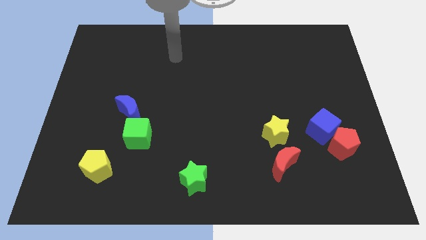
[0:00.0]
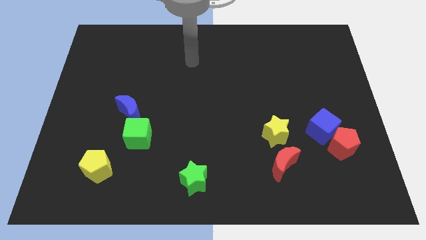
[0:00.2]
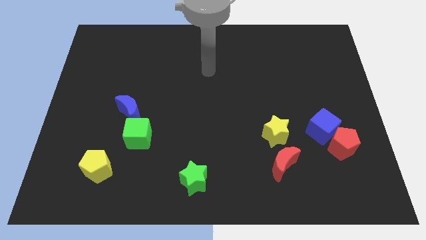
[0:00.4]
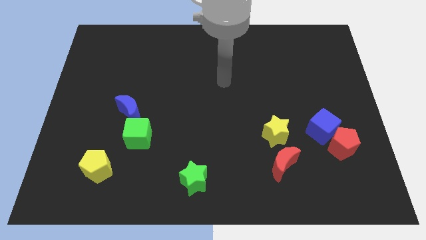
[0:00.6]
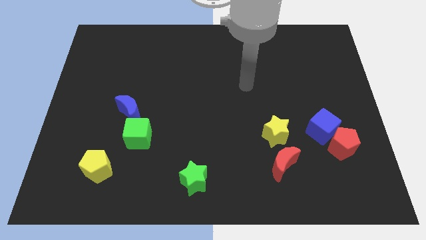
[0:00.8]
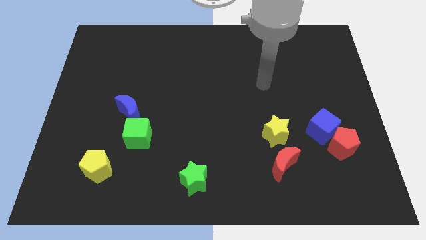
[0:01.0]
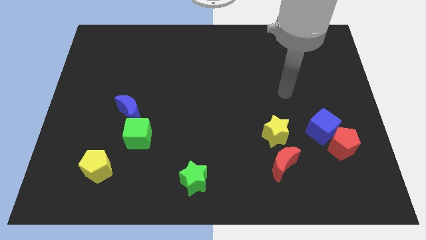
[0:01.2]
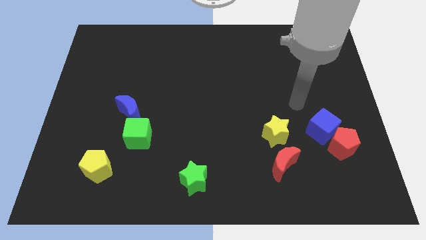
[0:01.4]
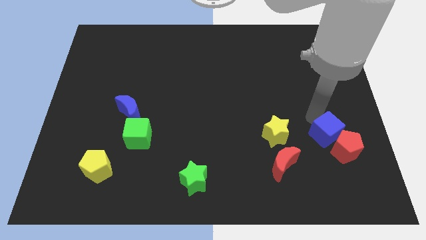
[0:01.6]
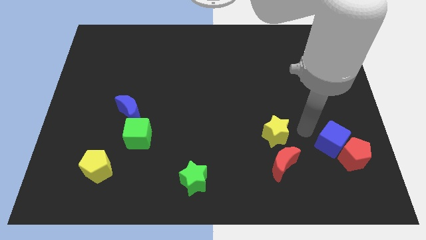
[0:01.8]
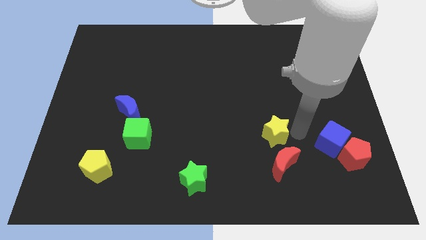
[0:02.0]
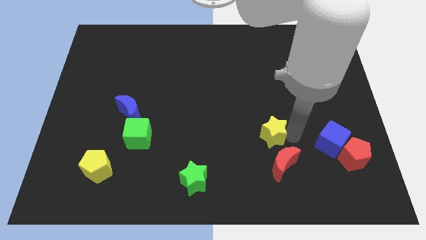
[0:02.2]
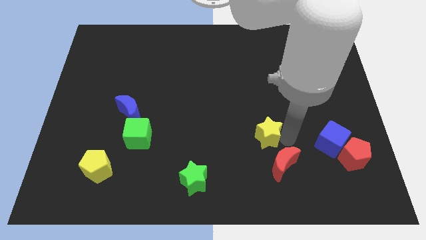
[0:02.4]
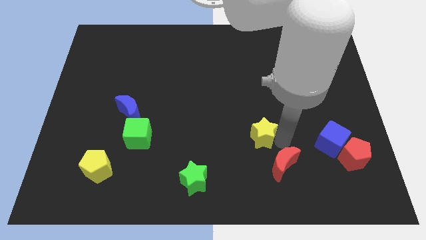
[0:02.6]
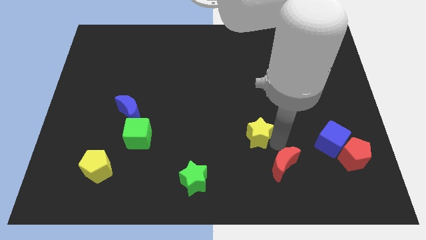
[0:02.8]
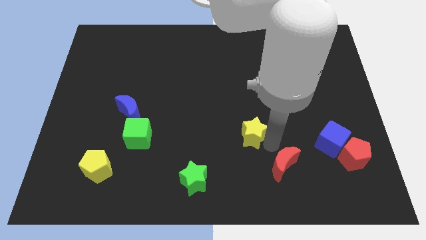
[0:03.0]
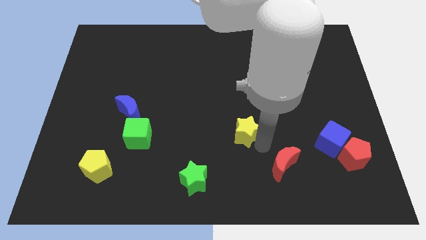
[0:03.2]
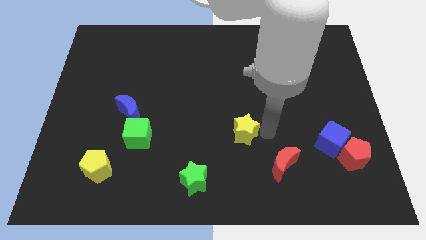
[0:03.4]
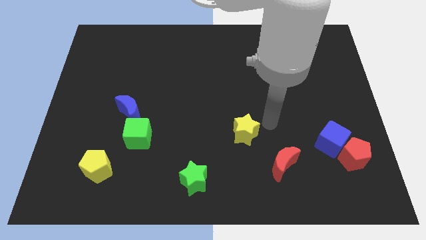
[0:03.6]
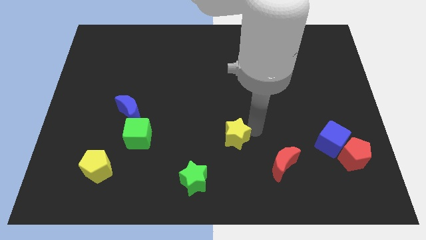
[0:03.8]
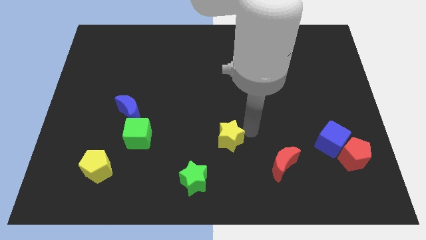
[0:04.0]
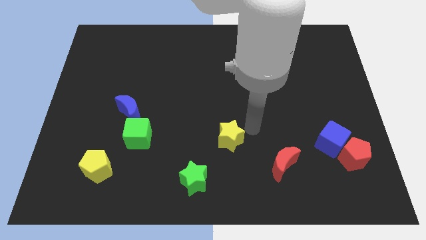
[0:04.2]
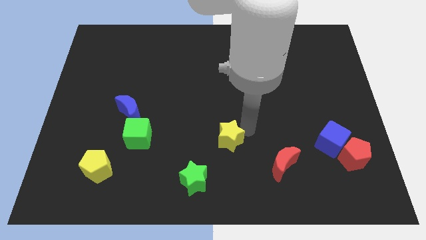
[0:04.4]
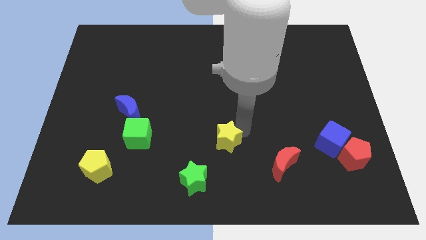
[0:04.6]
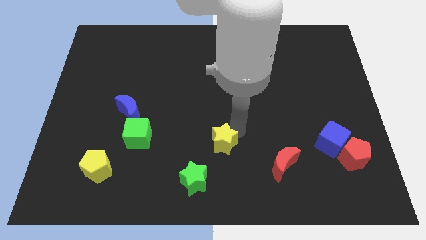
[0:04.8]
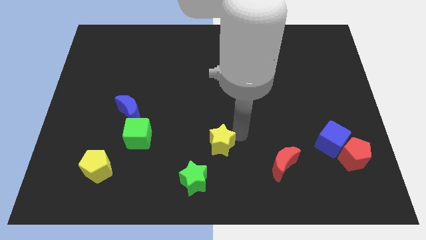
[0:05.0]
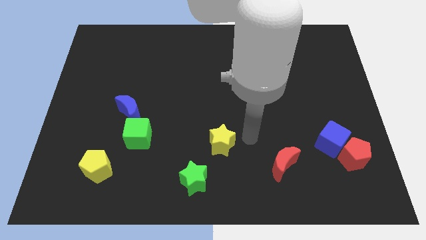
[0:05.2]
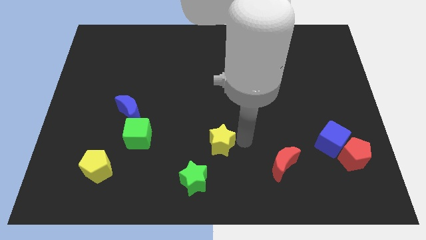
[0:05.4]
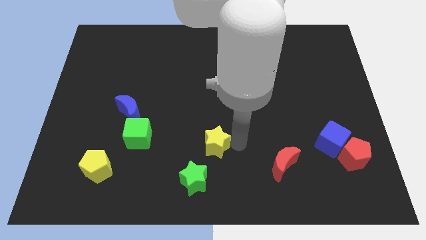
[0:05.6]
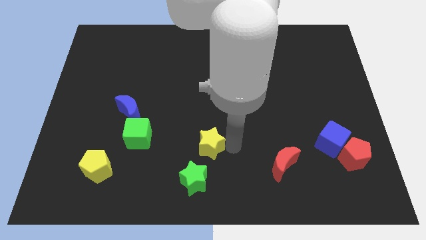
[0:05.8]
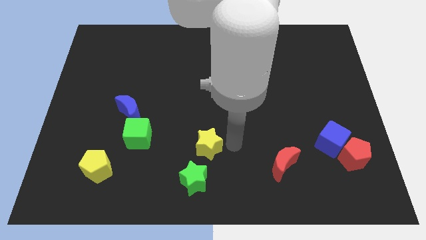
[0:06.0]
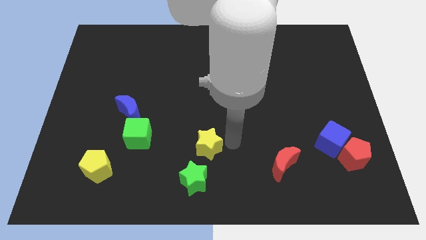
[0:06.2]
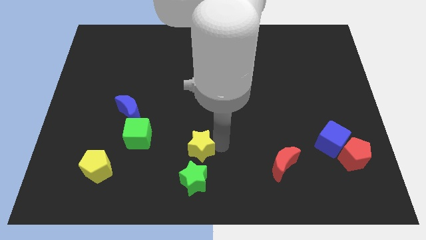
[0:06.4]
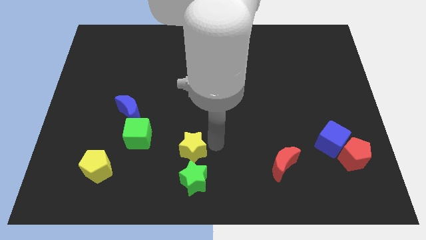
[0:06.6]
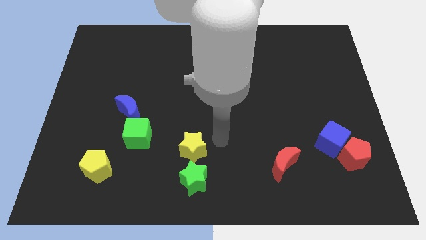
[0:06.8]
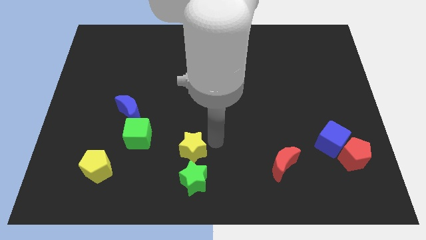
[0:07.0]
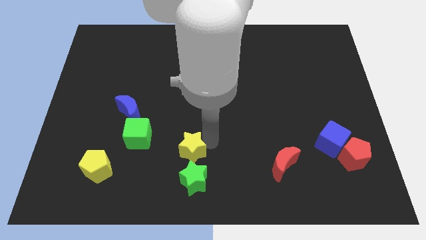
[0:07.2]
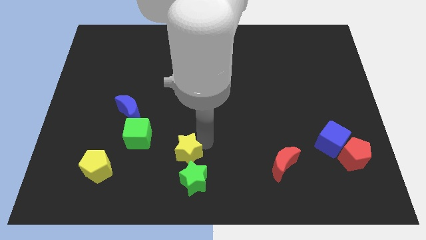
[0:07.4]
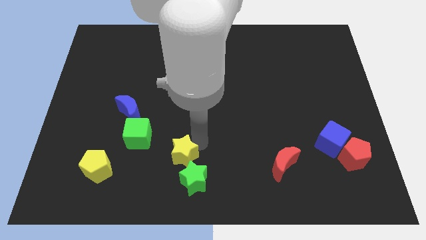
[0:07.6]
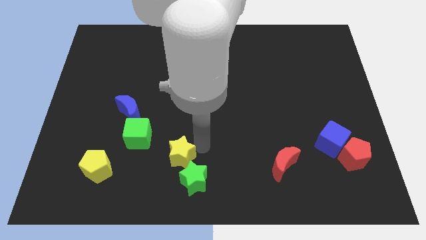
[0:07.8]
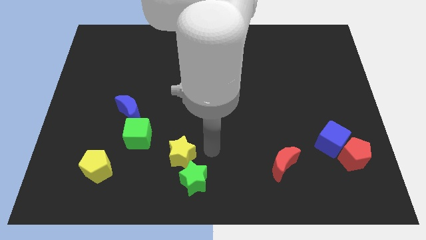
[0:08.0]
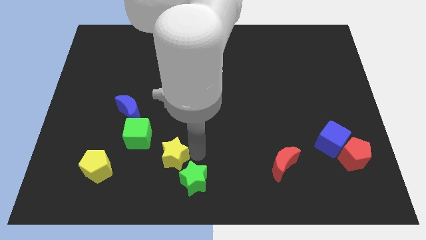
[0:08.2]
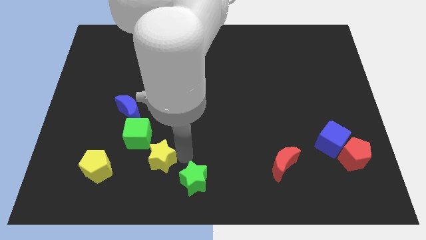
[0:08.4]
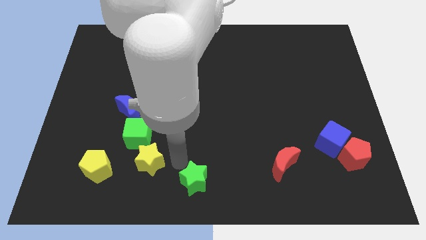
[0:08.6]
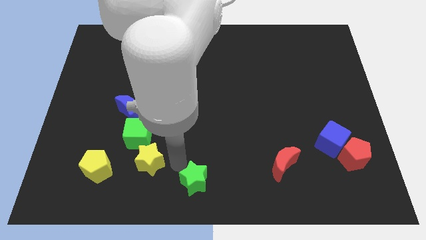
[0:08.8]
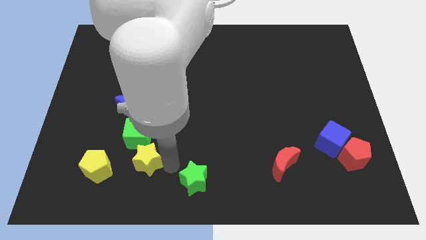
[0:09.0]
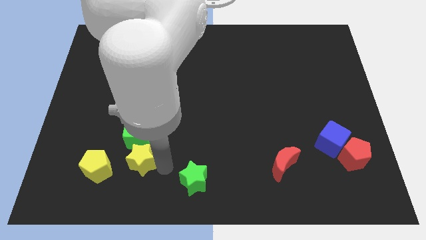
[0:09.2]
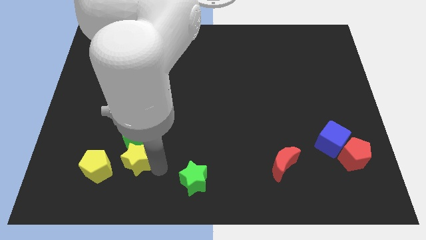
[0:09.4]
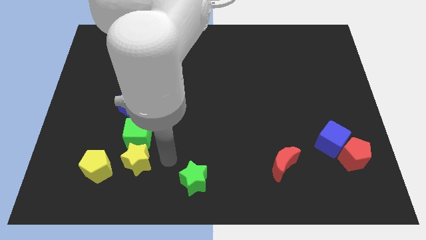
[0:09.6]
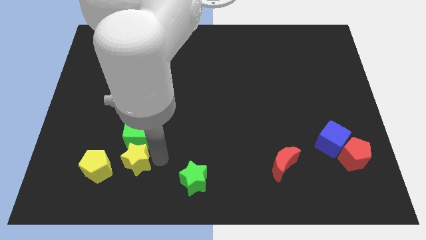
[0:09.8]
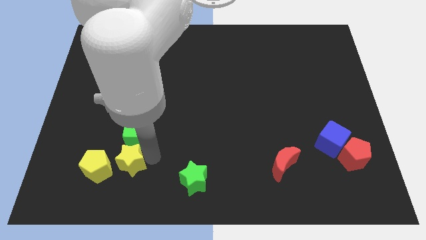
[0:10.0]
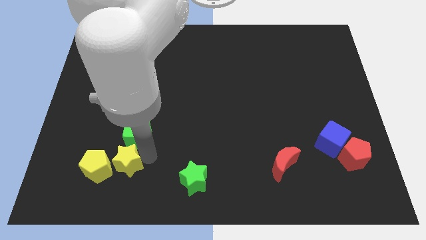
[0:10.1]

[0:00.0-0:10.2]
push the yellow star next to the yellow pentagon

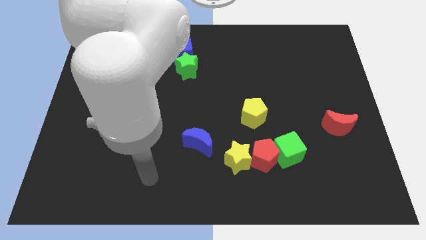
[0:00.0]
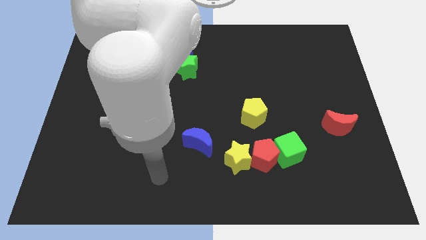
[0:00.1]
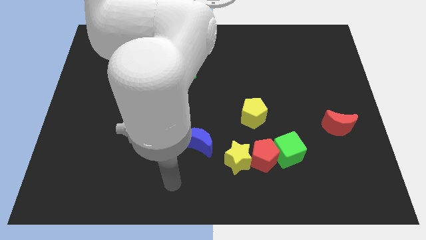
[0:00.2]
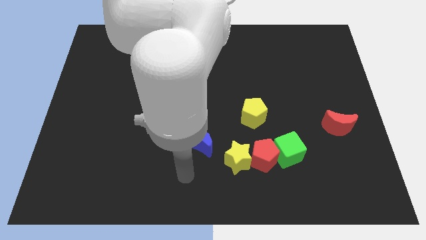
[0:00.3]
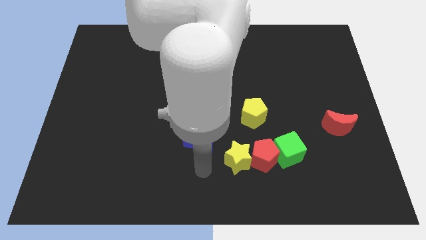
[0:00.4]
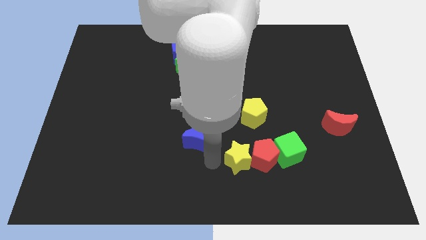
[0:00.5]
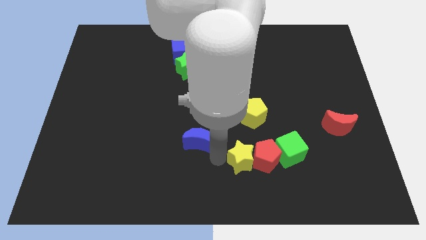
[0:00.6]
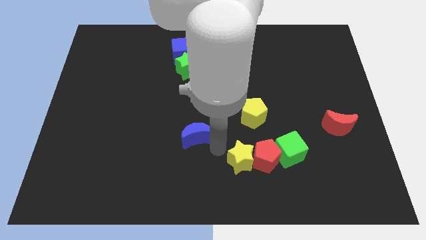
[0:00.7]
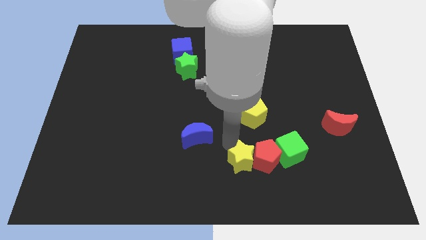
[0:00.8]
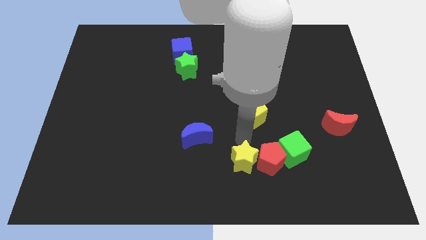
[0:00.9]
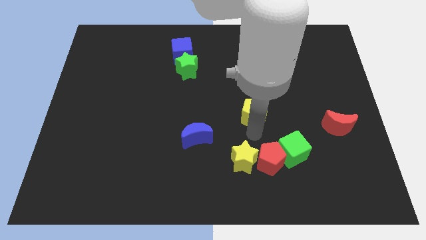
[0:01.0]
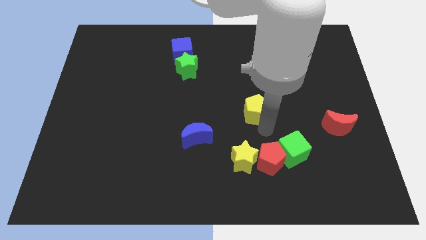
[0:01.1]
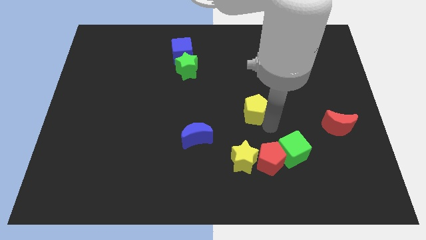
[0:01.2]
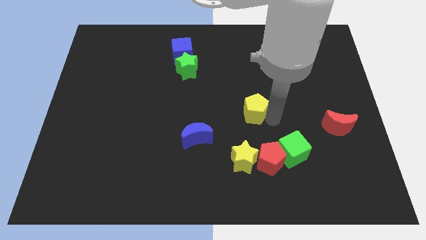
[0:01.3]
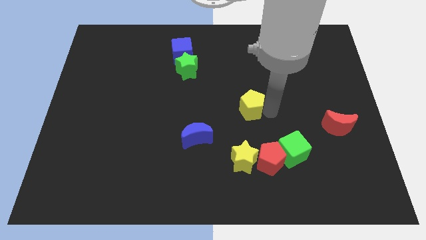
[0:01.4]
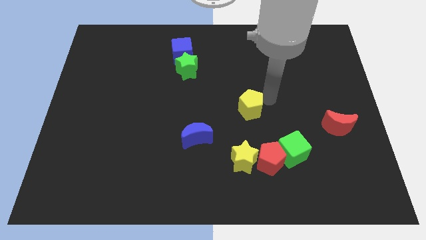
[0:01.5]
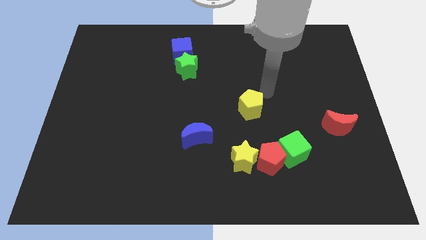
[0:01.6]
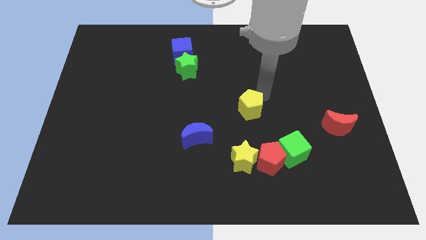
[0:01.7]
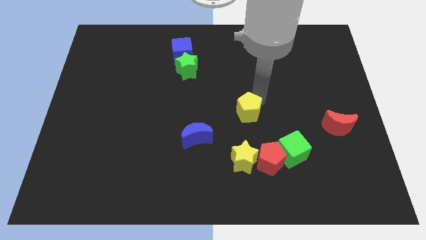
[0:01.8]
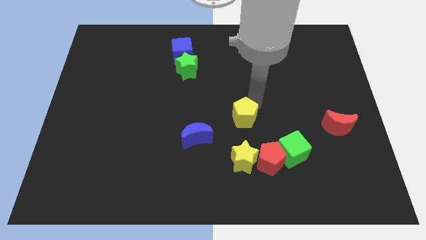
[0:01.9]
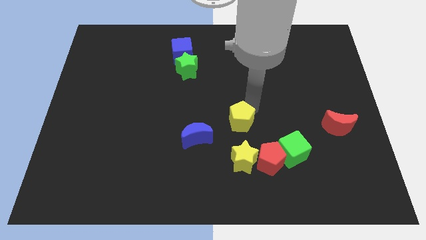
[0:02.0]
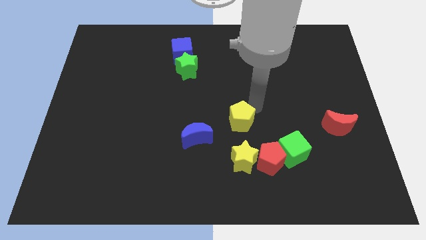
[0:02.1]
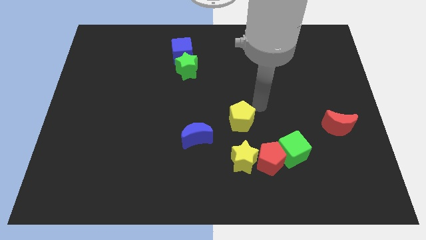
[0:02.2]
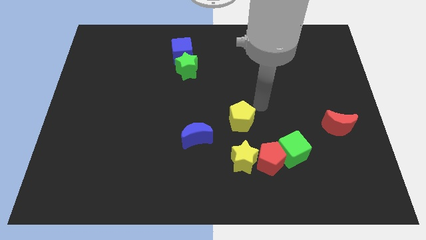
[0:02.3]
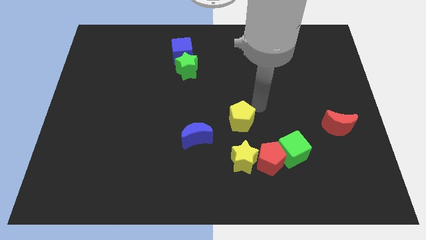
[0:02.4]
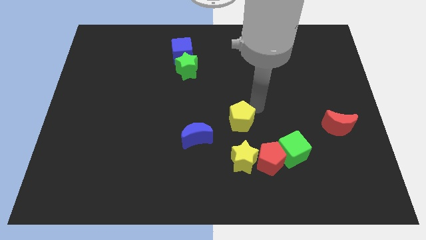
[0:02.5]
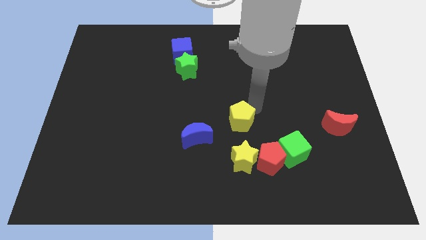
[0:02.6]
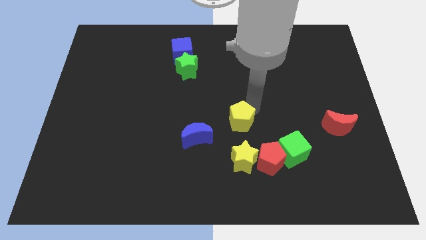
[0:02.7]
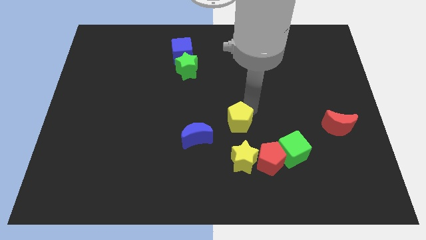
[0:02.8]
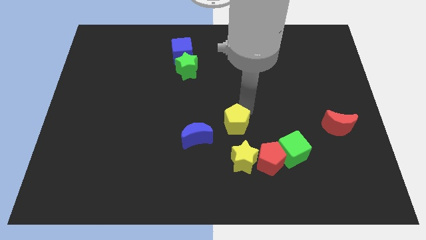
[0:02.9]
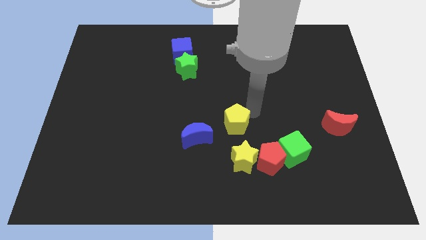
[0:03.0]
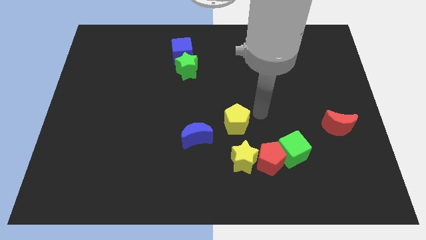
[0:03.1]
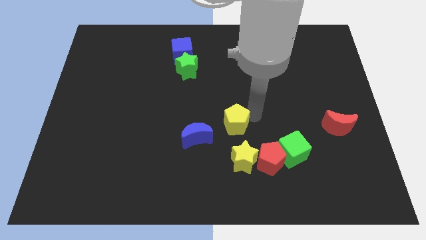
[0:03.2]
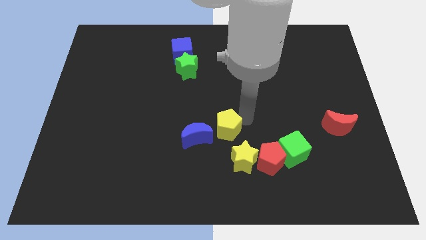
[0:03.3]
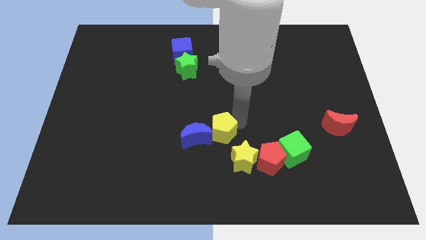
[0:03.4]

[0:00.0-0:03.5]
move the yellow pentagon next to the blue moon
